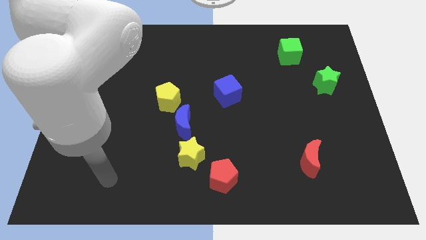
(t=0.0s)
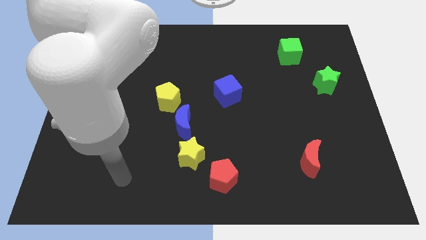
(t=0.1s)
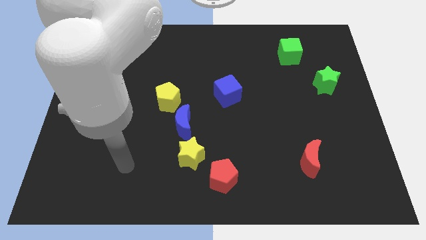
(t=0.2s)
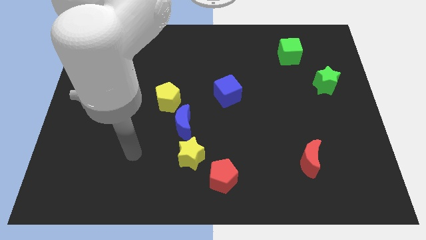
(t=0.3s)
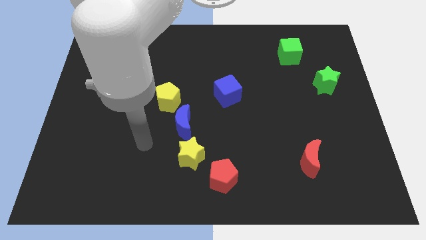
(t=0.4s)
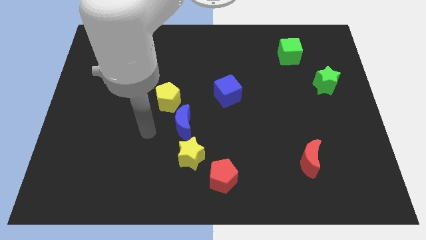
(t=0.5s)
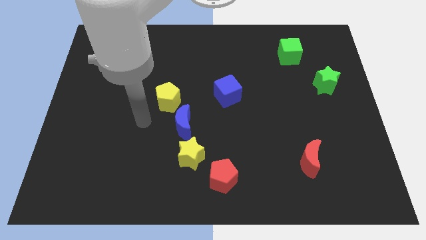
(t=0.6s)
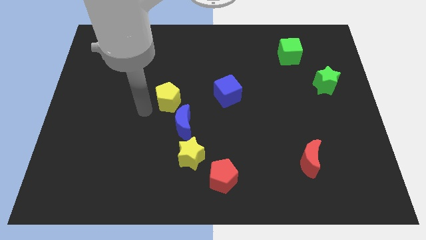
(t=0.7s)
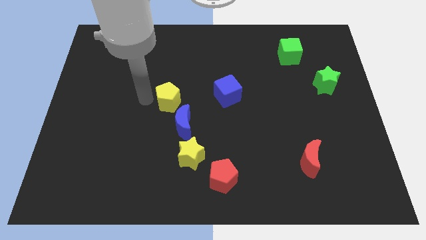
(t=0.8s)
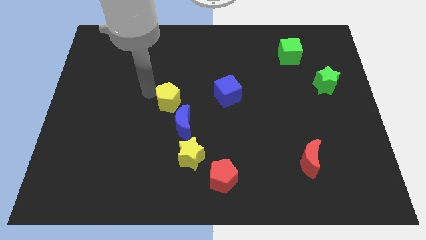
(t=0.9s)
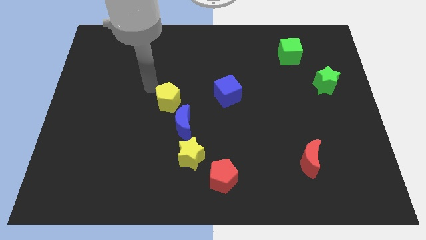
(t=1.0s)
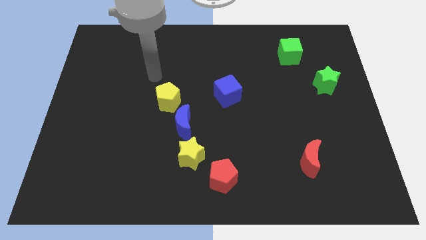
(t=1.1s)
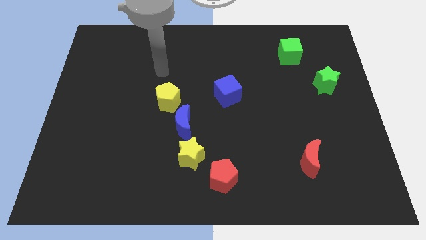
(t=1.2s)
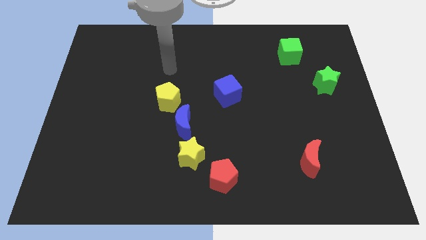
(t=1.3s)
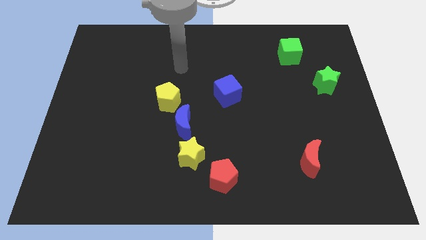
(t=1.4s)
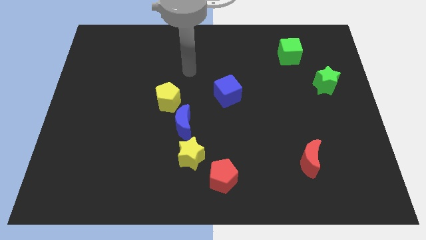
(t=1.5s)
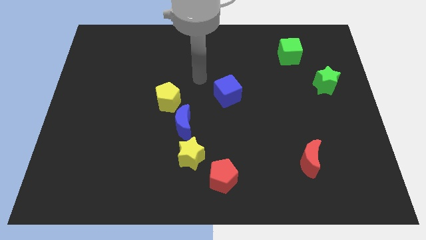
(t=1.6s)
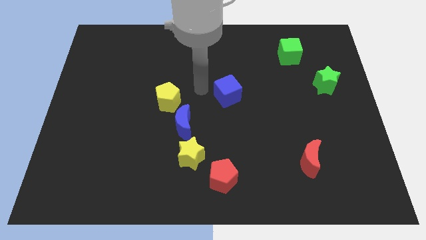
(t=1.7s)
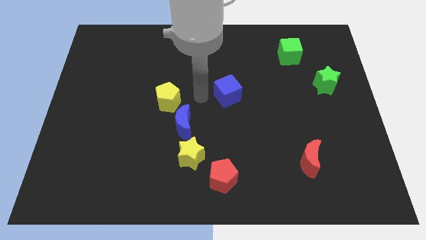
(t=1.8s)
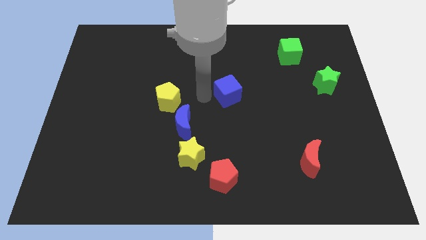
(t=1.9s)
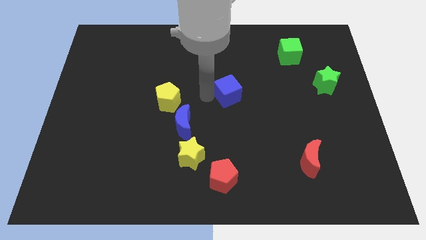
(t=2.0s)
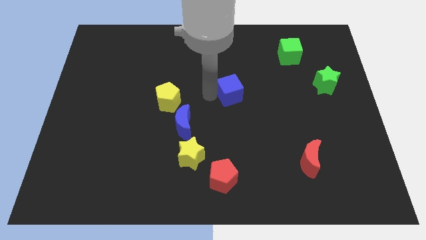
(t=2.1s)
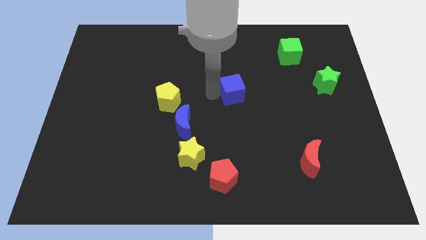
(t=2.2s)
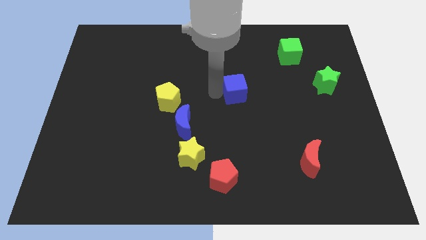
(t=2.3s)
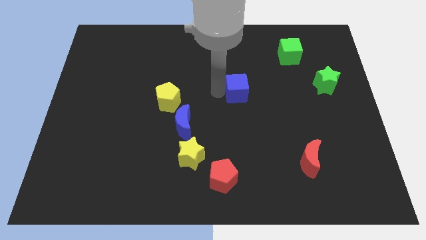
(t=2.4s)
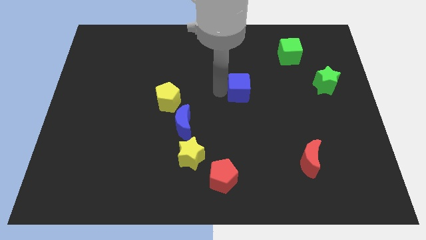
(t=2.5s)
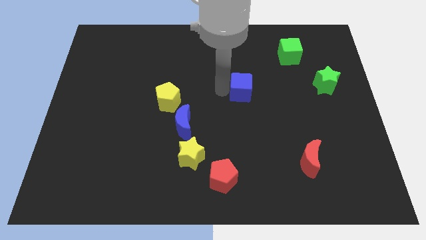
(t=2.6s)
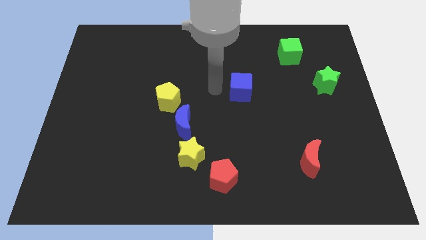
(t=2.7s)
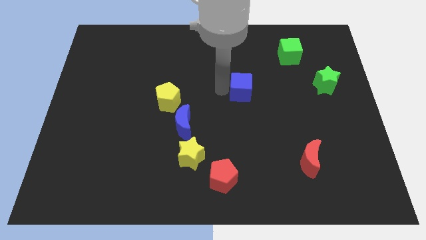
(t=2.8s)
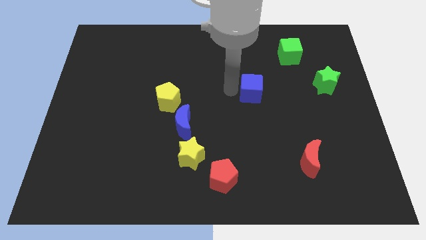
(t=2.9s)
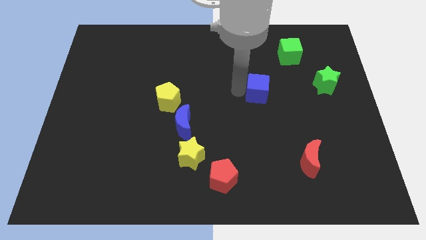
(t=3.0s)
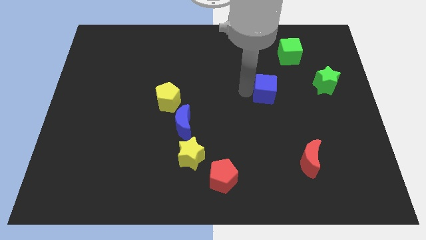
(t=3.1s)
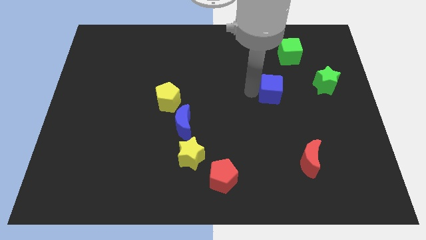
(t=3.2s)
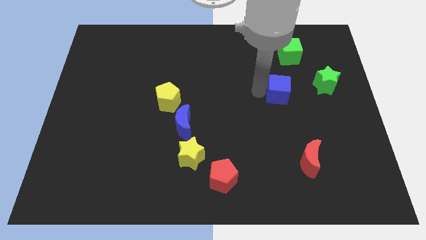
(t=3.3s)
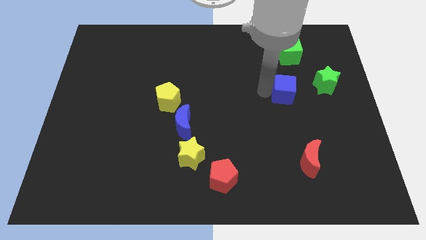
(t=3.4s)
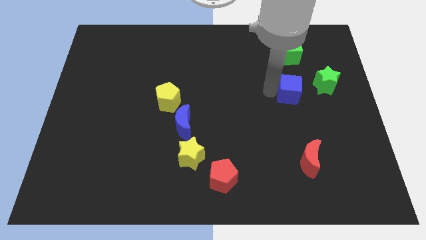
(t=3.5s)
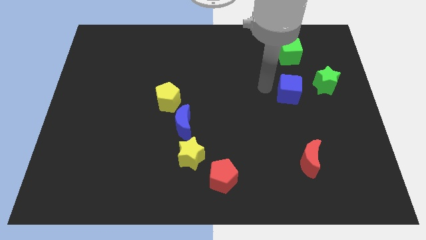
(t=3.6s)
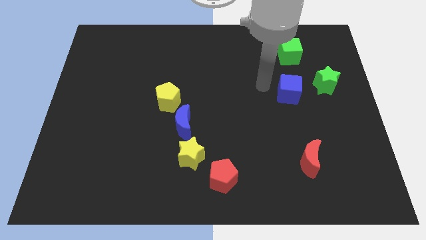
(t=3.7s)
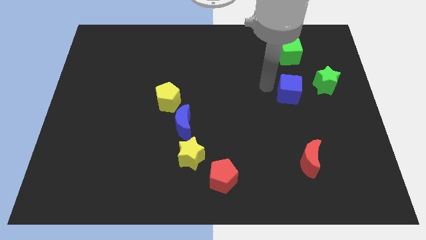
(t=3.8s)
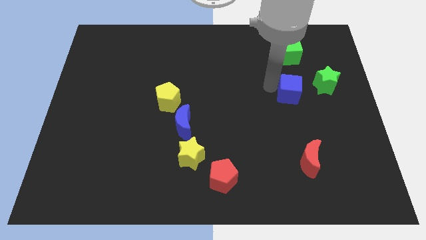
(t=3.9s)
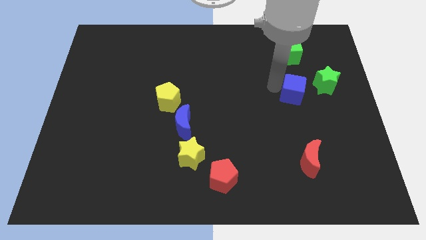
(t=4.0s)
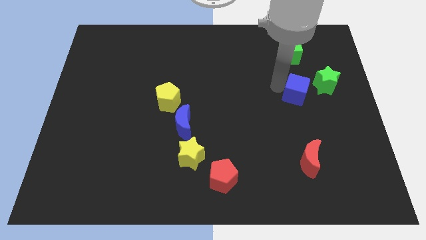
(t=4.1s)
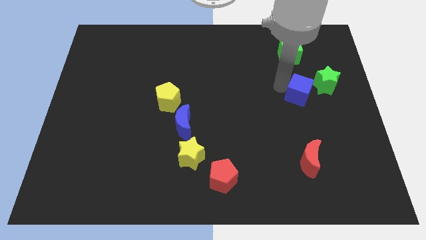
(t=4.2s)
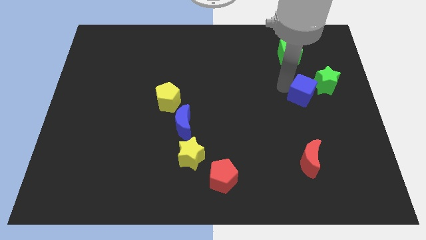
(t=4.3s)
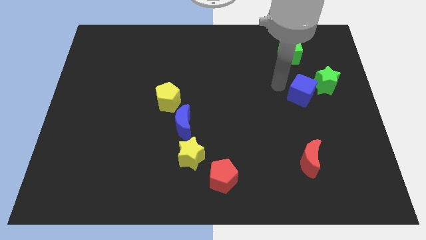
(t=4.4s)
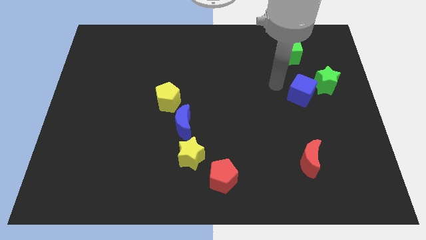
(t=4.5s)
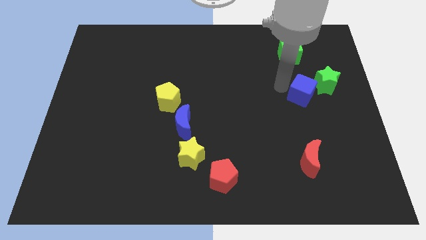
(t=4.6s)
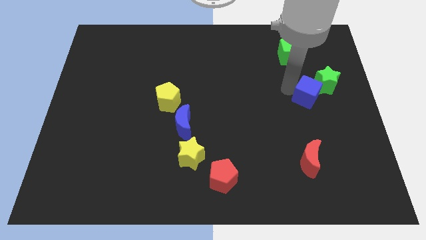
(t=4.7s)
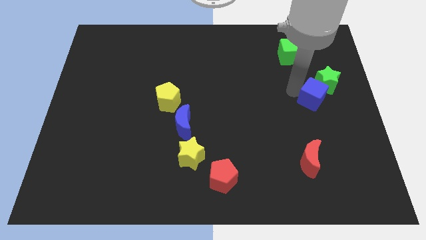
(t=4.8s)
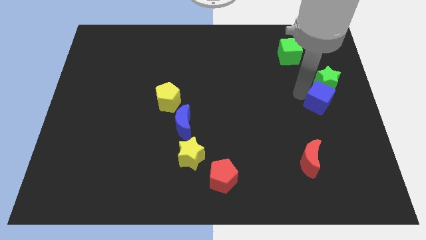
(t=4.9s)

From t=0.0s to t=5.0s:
slide the blue cube to the right side of the board

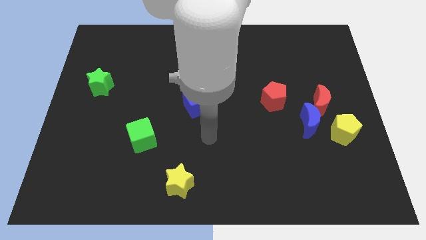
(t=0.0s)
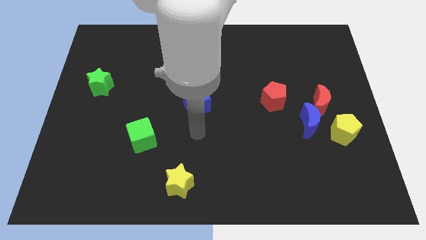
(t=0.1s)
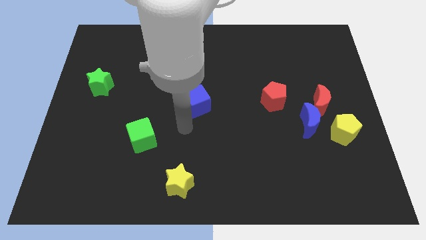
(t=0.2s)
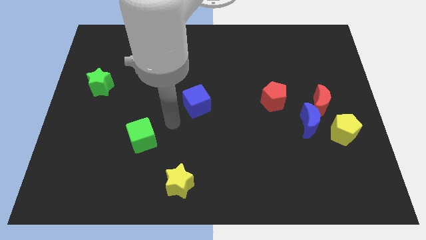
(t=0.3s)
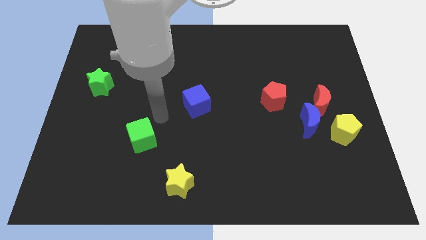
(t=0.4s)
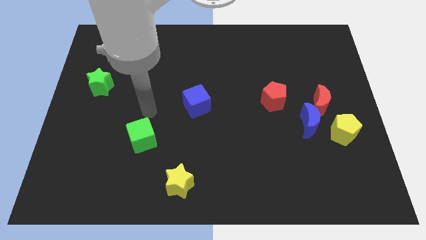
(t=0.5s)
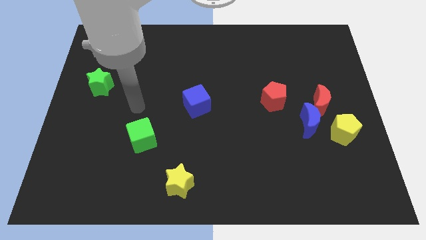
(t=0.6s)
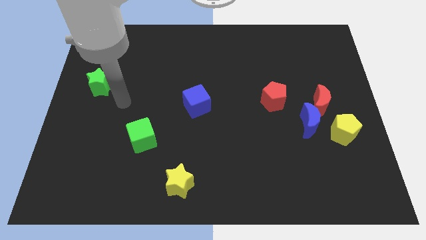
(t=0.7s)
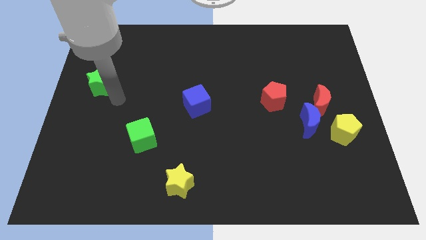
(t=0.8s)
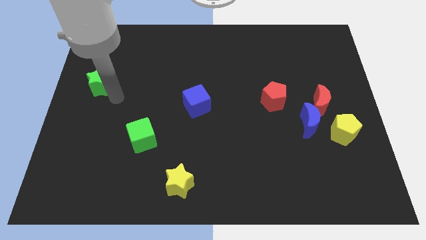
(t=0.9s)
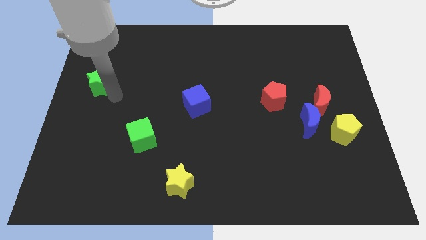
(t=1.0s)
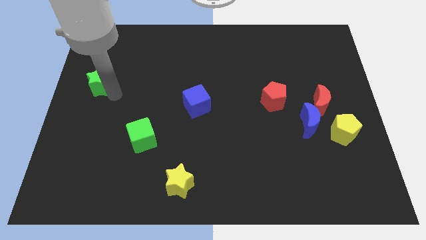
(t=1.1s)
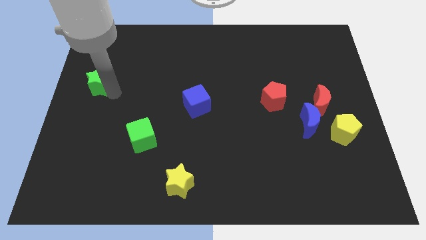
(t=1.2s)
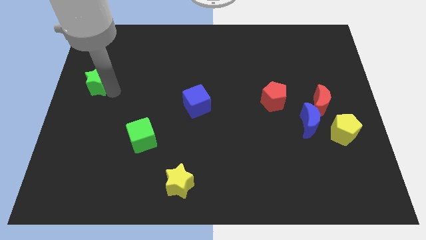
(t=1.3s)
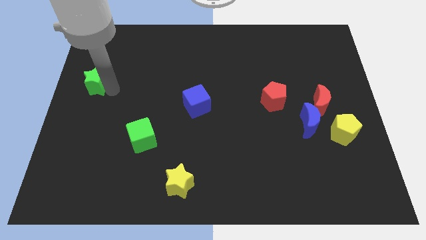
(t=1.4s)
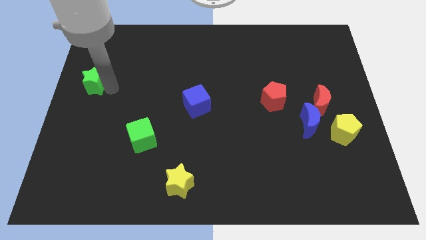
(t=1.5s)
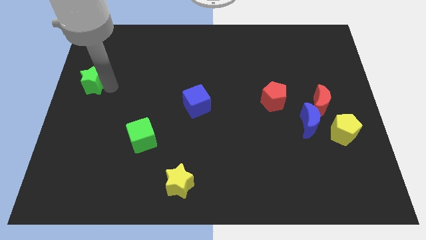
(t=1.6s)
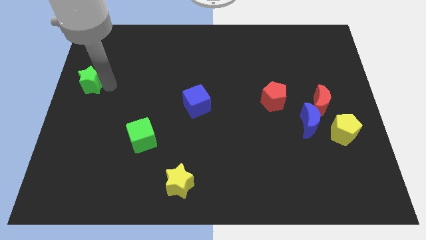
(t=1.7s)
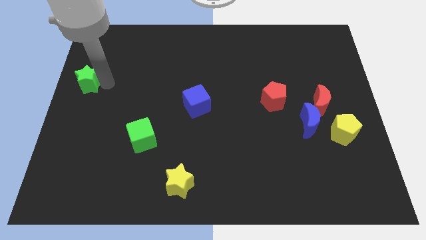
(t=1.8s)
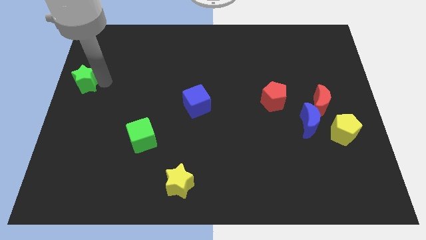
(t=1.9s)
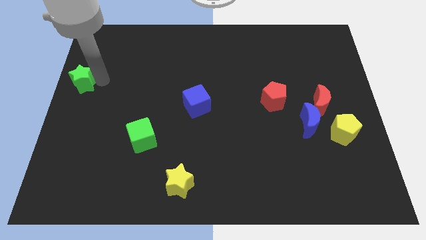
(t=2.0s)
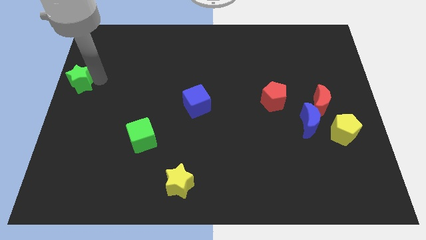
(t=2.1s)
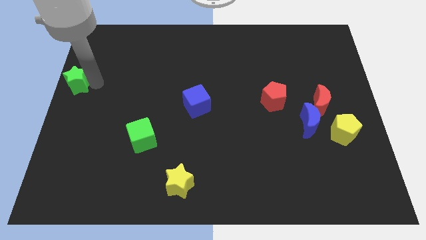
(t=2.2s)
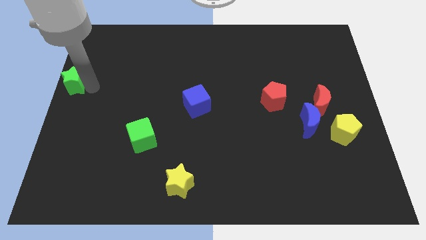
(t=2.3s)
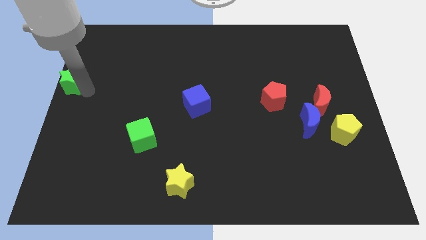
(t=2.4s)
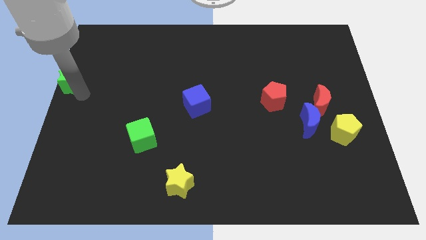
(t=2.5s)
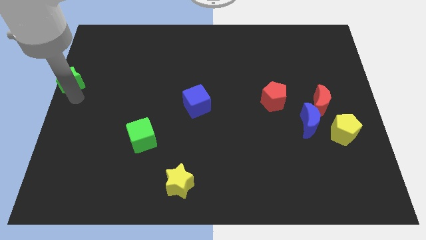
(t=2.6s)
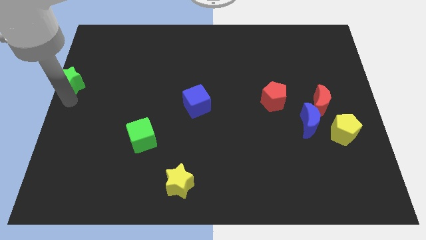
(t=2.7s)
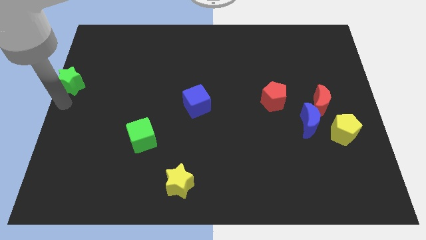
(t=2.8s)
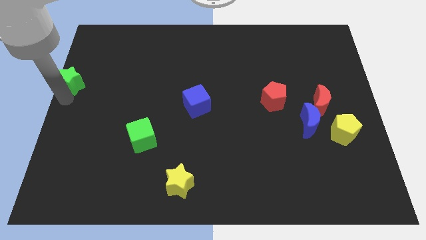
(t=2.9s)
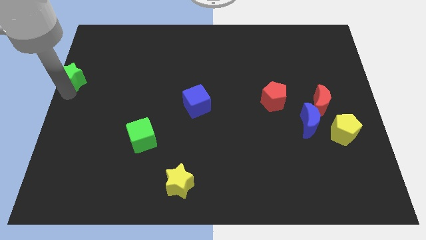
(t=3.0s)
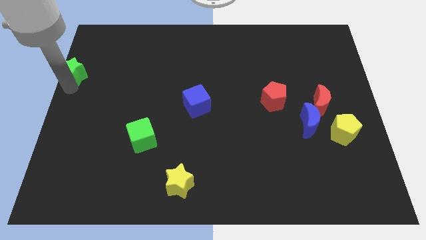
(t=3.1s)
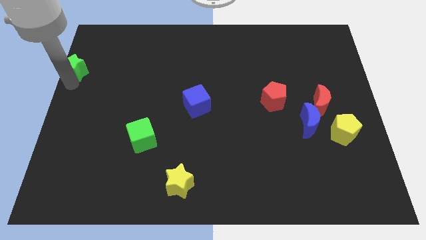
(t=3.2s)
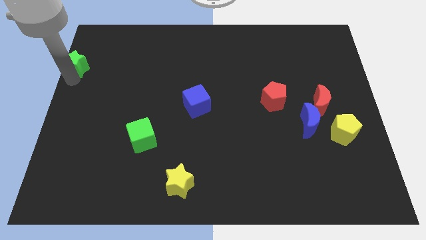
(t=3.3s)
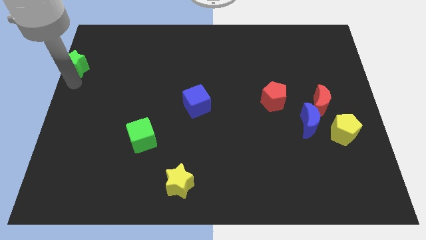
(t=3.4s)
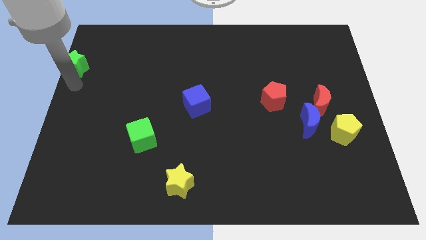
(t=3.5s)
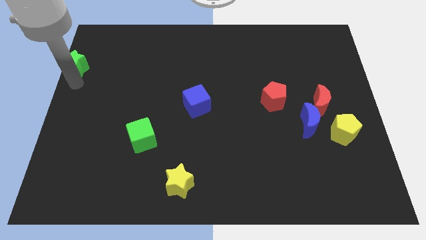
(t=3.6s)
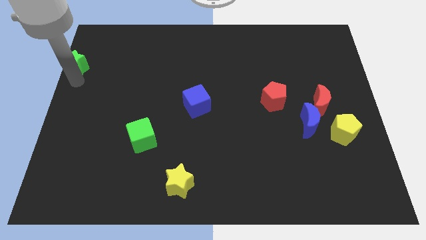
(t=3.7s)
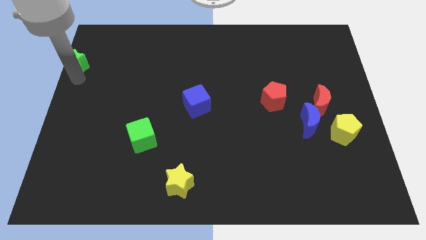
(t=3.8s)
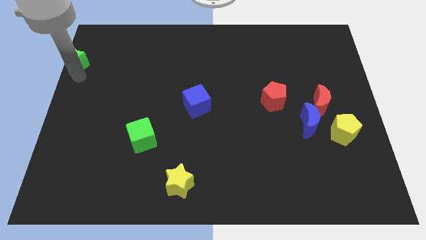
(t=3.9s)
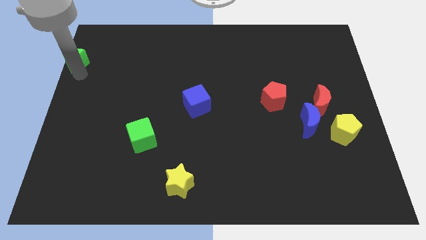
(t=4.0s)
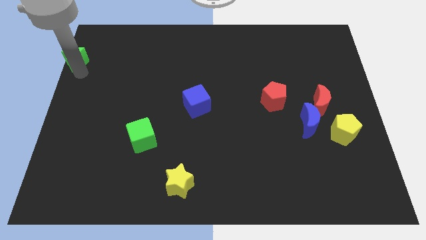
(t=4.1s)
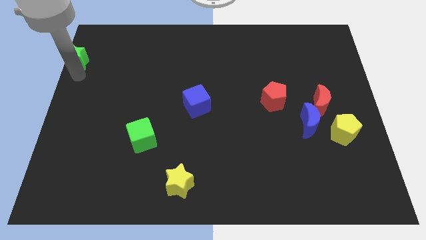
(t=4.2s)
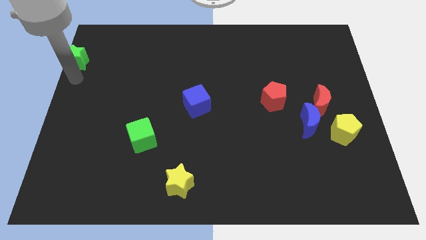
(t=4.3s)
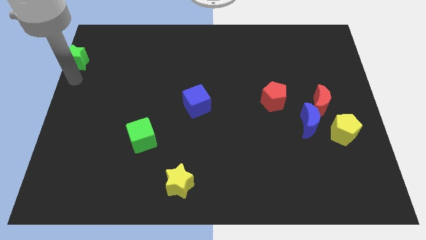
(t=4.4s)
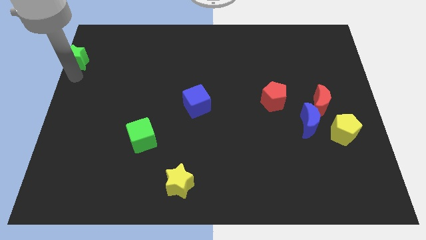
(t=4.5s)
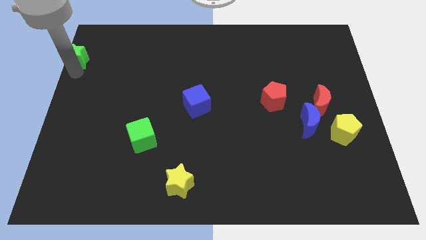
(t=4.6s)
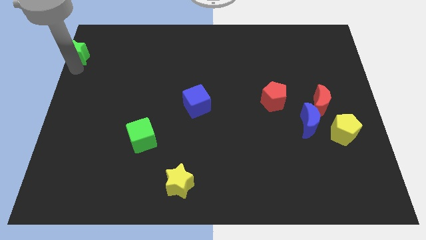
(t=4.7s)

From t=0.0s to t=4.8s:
slide the green star to the upper left corner
